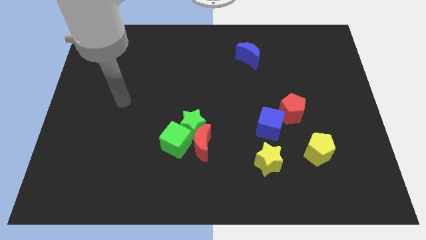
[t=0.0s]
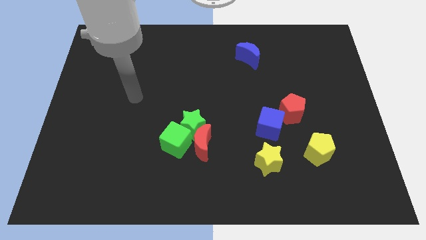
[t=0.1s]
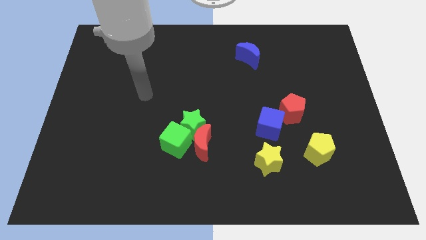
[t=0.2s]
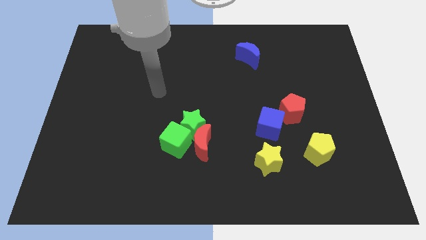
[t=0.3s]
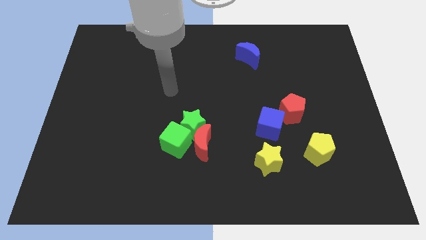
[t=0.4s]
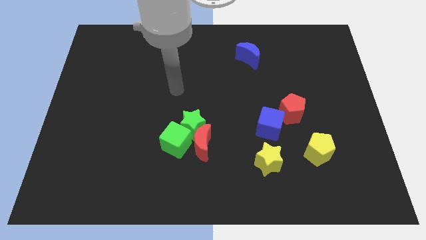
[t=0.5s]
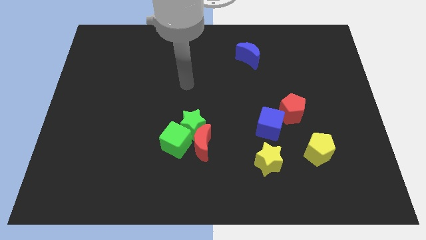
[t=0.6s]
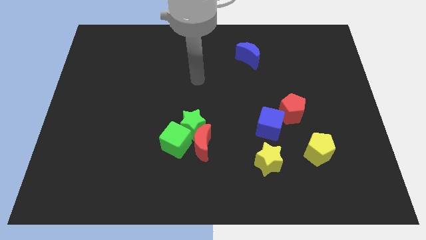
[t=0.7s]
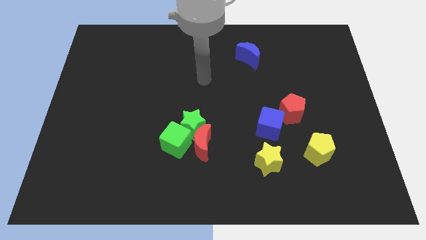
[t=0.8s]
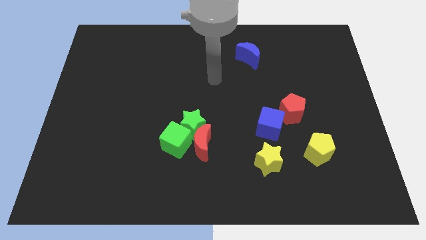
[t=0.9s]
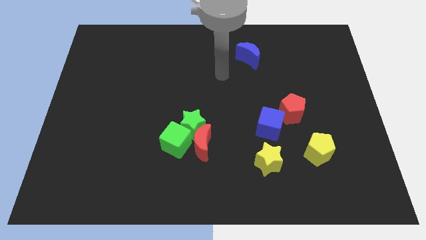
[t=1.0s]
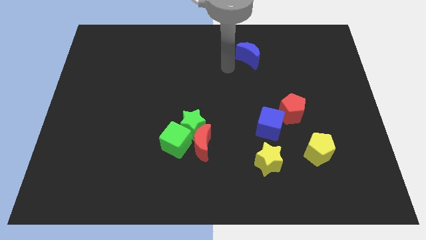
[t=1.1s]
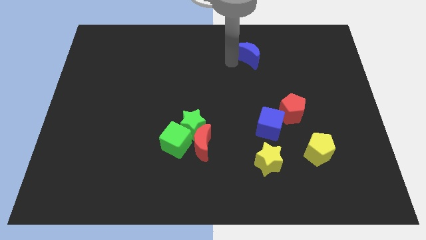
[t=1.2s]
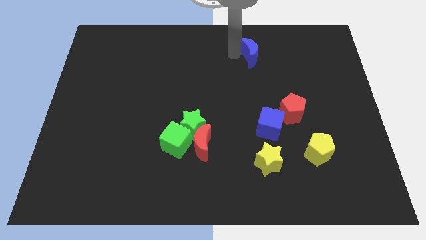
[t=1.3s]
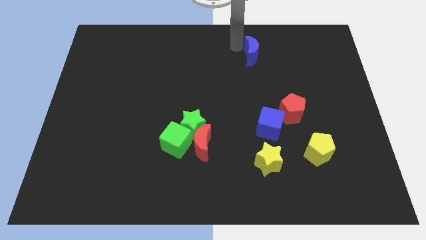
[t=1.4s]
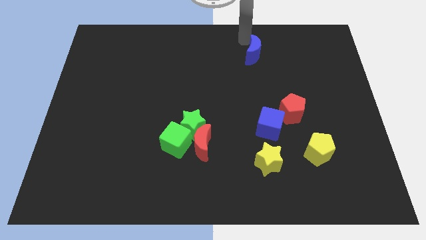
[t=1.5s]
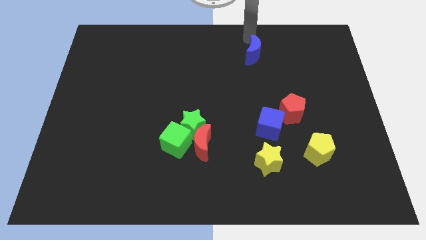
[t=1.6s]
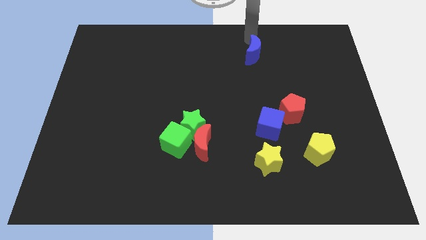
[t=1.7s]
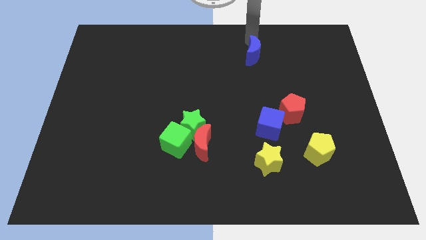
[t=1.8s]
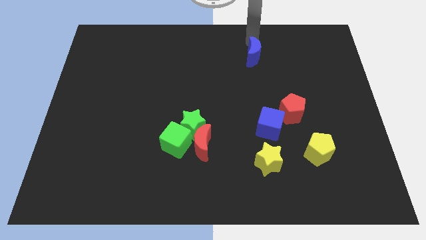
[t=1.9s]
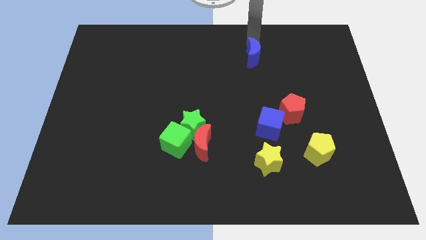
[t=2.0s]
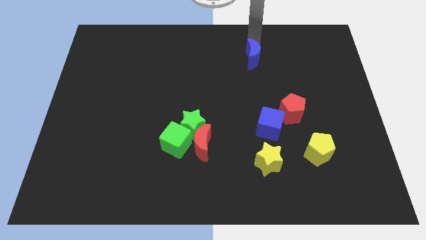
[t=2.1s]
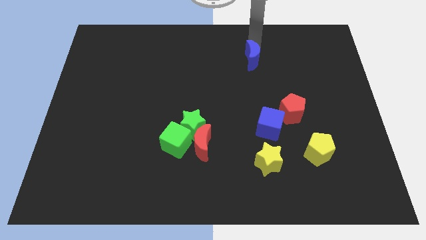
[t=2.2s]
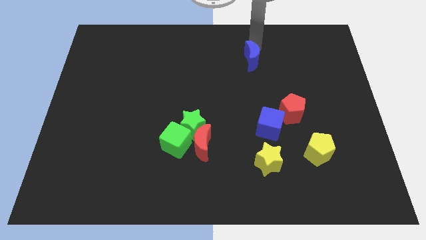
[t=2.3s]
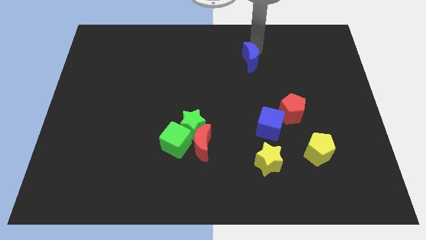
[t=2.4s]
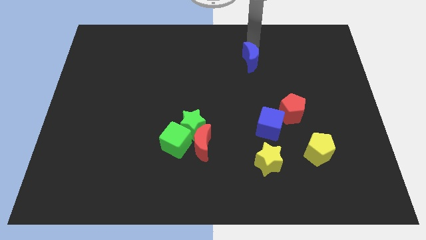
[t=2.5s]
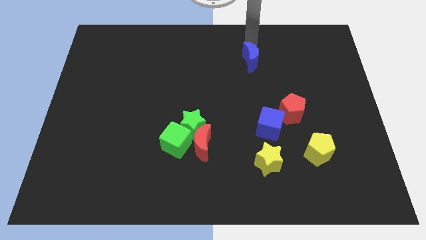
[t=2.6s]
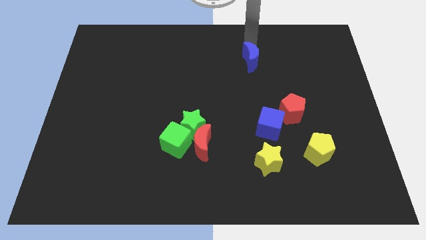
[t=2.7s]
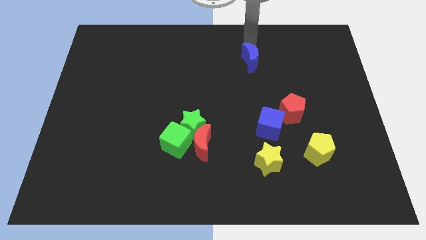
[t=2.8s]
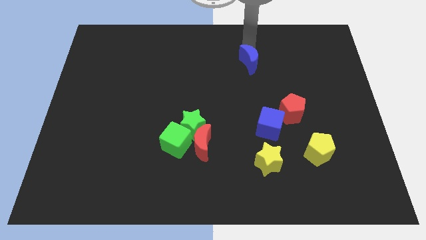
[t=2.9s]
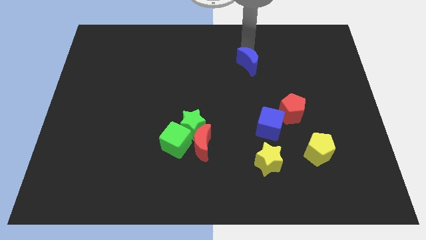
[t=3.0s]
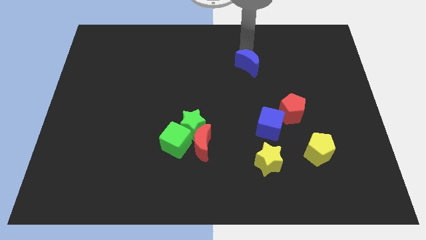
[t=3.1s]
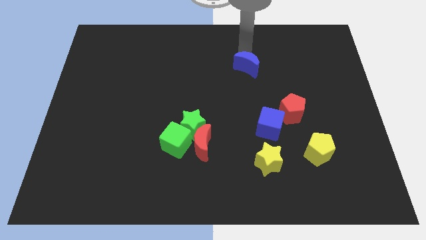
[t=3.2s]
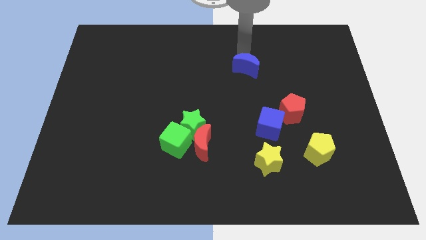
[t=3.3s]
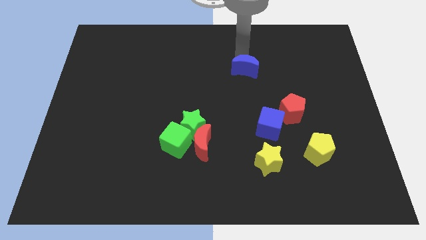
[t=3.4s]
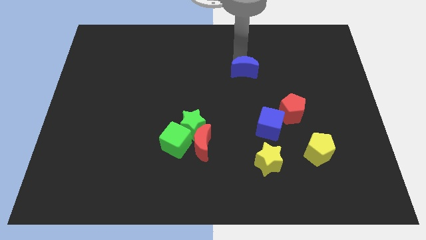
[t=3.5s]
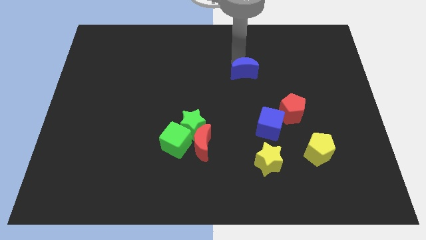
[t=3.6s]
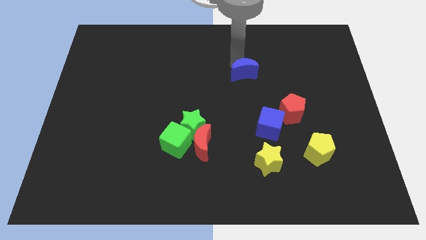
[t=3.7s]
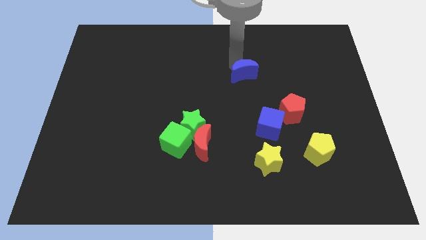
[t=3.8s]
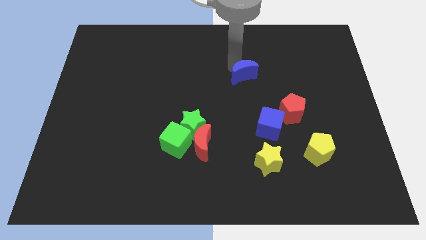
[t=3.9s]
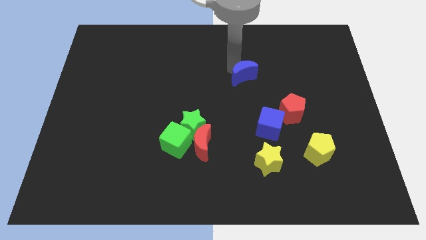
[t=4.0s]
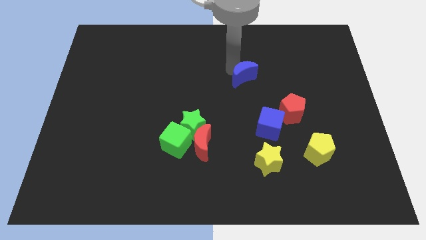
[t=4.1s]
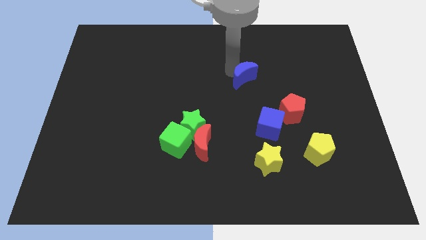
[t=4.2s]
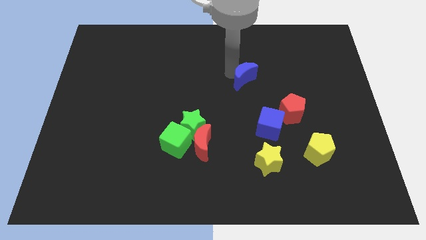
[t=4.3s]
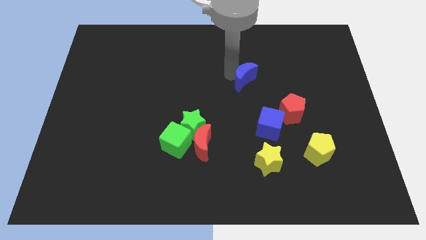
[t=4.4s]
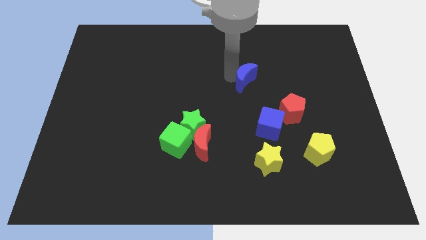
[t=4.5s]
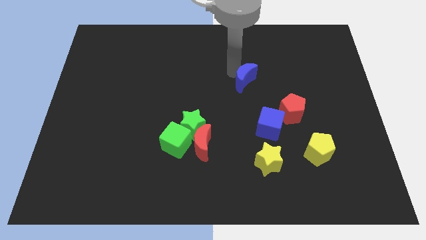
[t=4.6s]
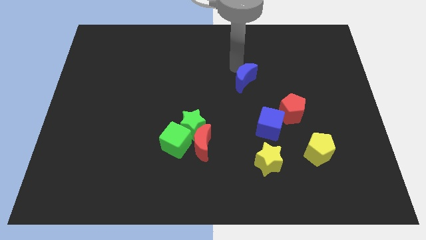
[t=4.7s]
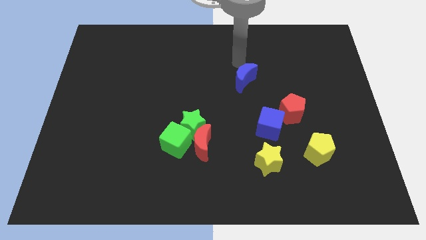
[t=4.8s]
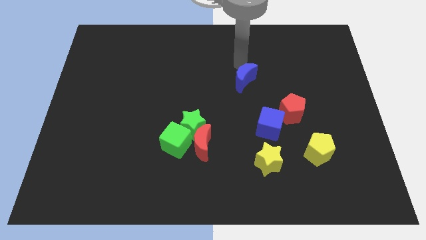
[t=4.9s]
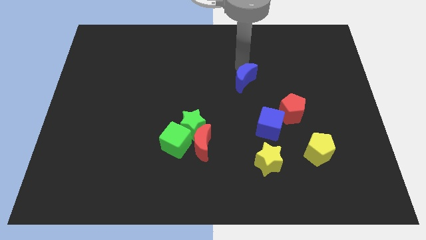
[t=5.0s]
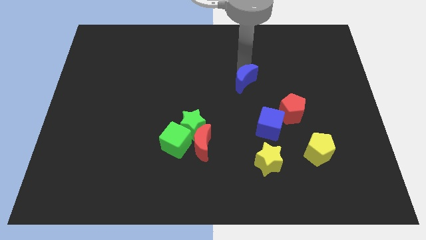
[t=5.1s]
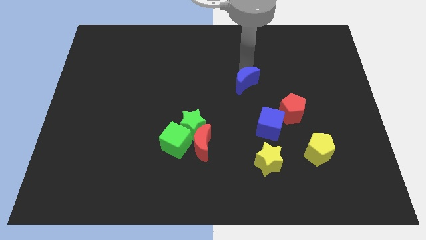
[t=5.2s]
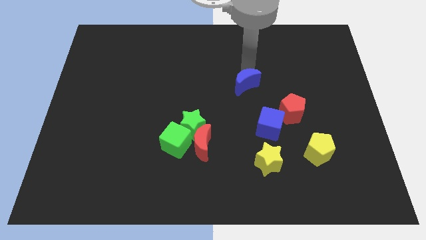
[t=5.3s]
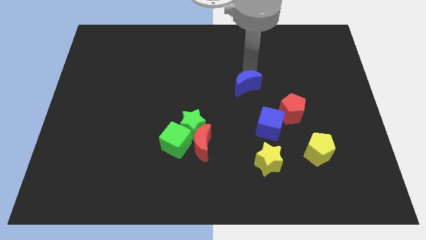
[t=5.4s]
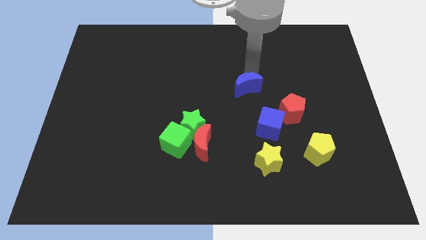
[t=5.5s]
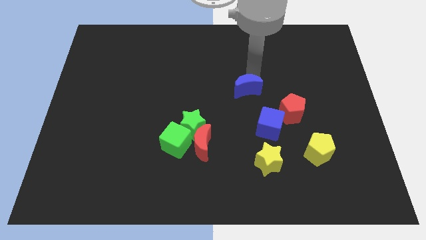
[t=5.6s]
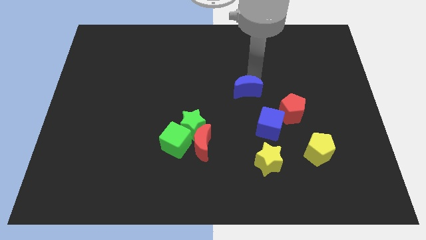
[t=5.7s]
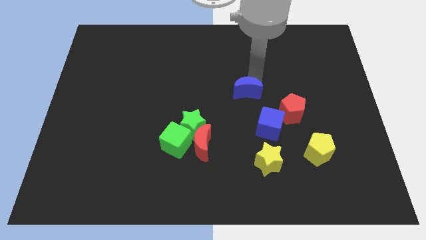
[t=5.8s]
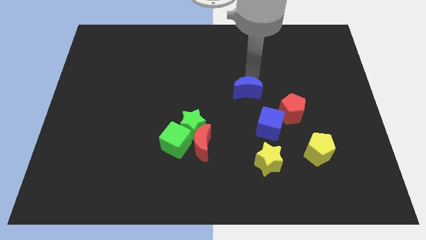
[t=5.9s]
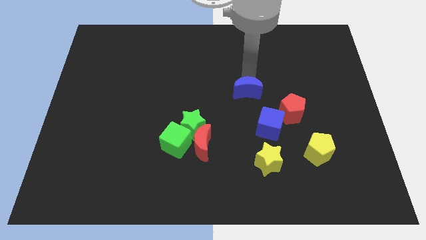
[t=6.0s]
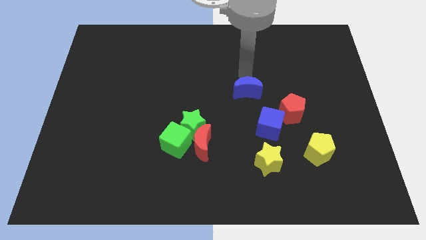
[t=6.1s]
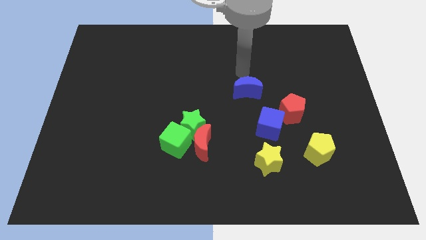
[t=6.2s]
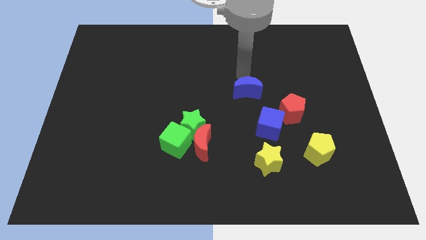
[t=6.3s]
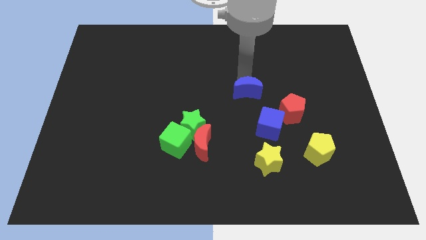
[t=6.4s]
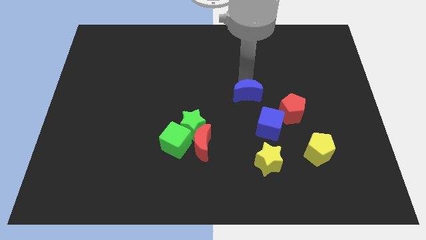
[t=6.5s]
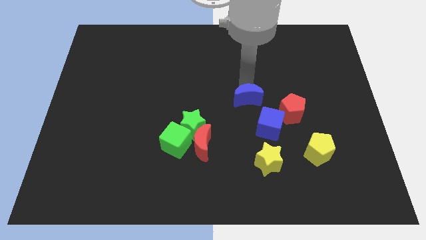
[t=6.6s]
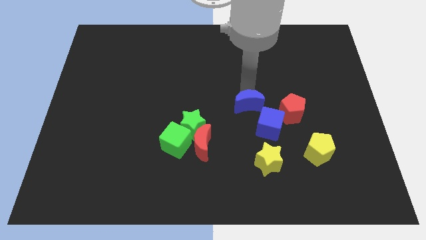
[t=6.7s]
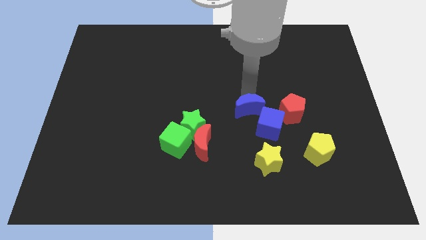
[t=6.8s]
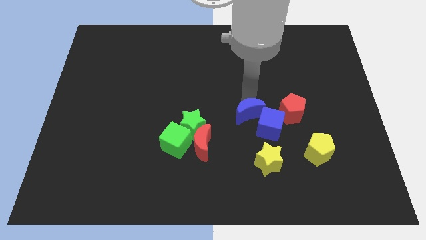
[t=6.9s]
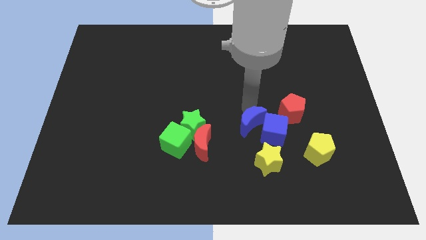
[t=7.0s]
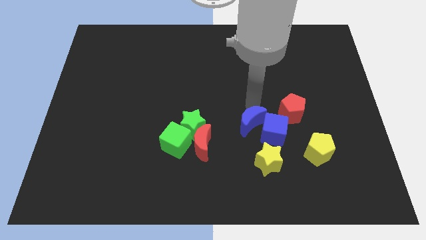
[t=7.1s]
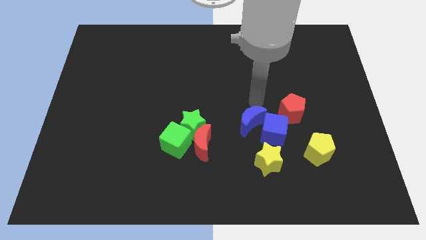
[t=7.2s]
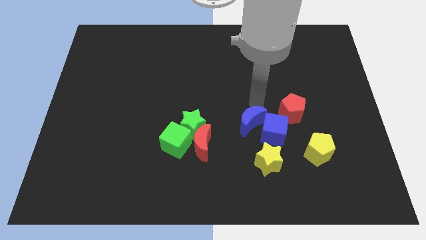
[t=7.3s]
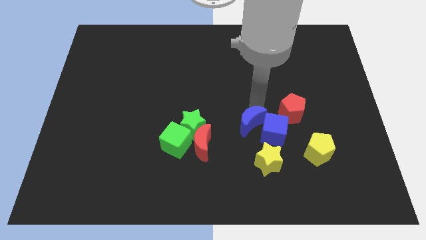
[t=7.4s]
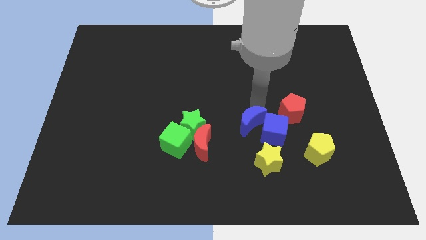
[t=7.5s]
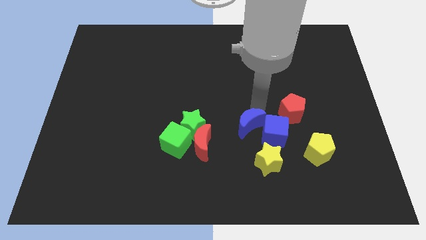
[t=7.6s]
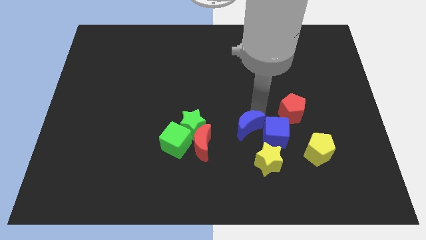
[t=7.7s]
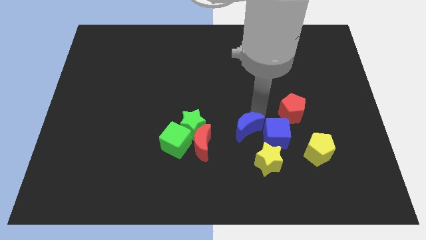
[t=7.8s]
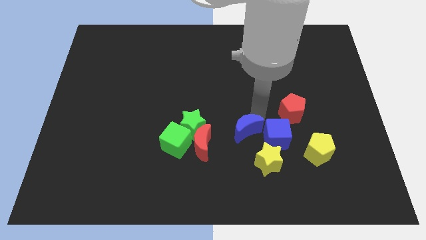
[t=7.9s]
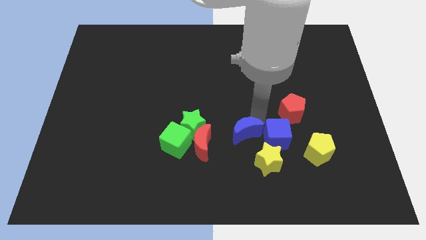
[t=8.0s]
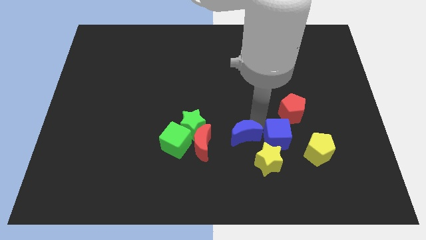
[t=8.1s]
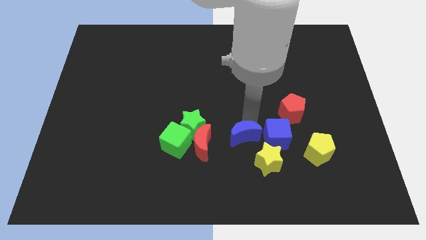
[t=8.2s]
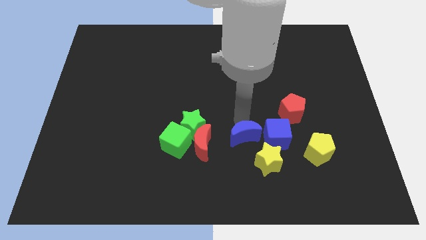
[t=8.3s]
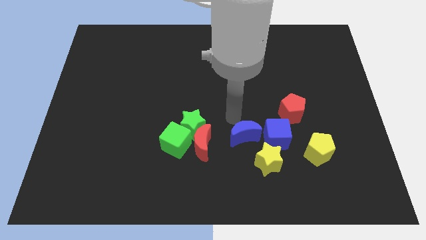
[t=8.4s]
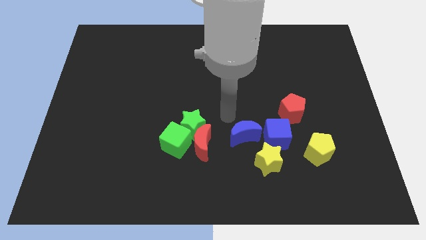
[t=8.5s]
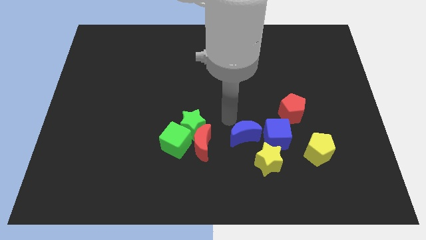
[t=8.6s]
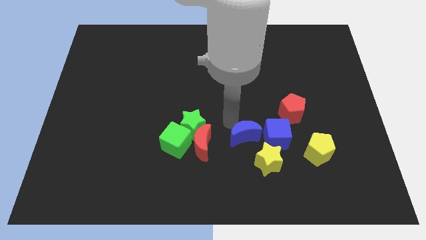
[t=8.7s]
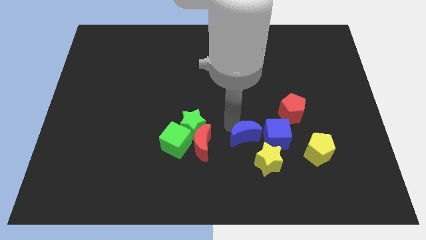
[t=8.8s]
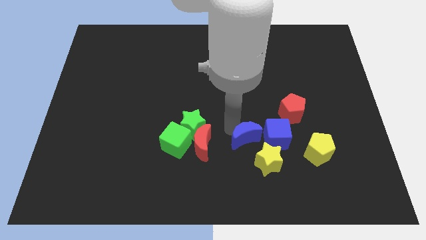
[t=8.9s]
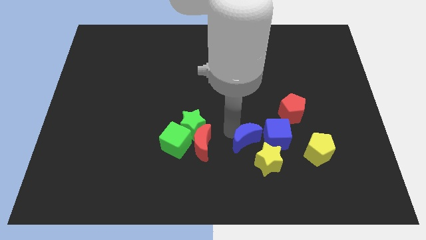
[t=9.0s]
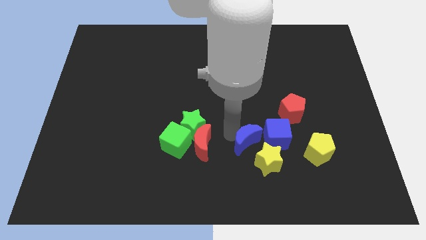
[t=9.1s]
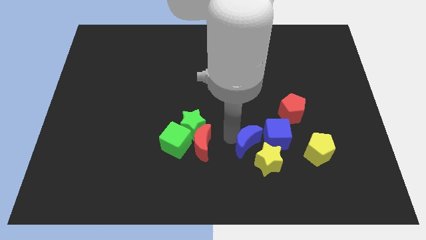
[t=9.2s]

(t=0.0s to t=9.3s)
push the blue moon to the yellow star
